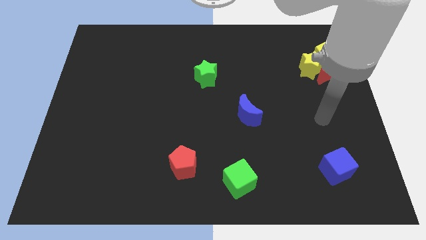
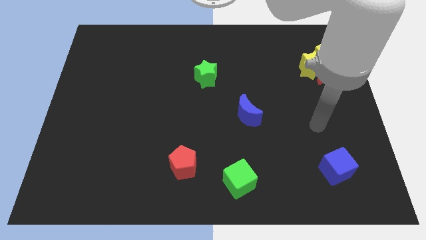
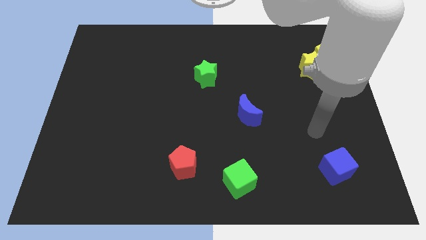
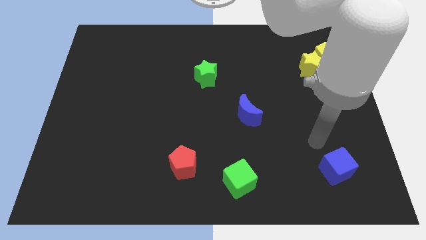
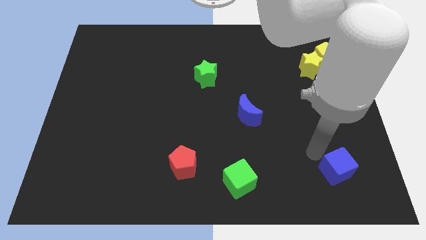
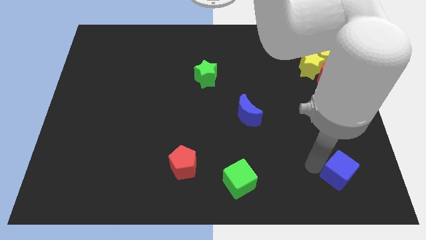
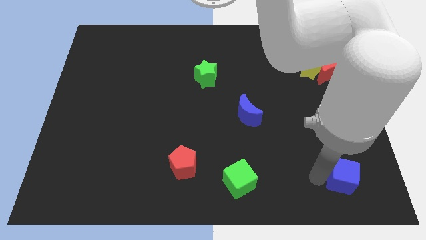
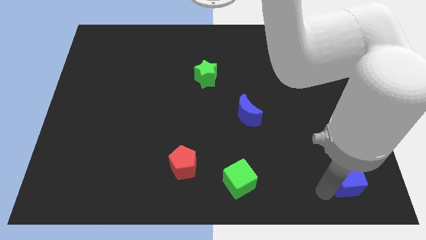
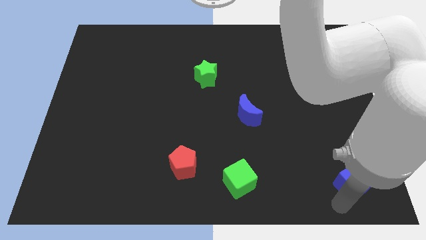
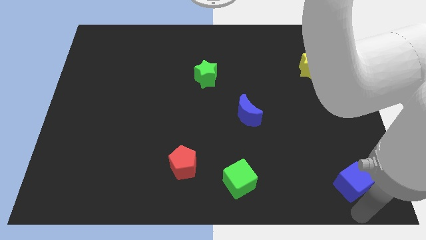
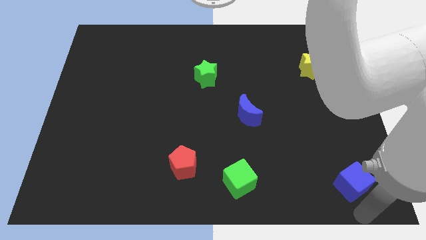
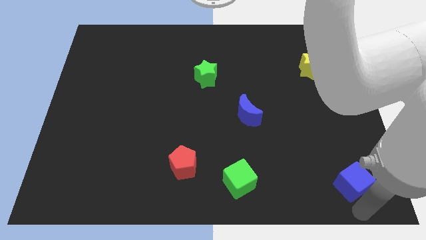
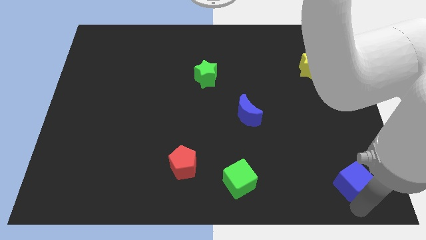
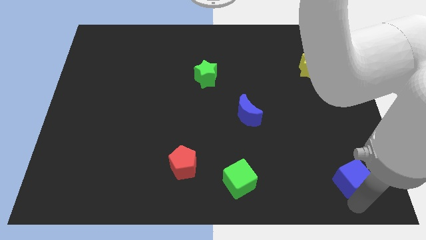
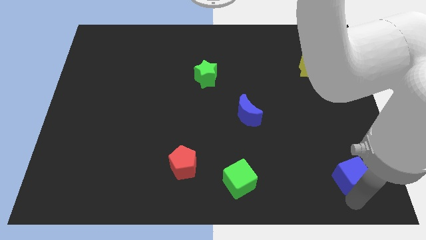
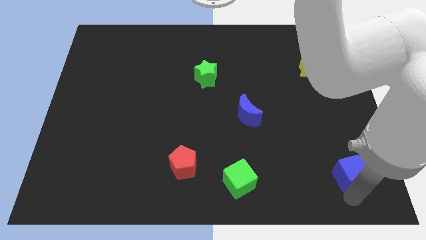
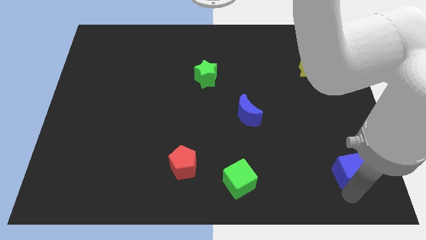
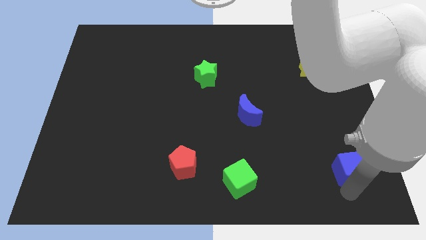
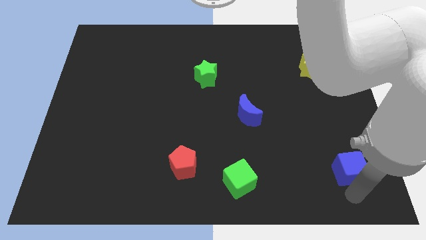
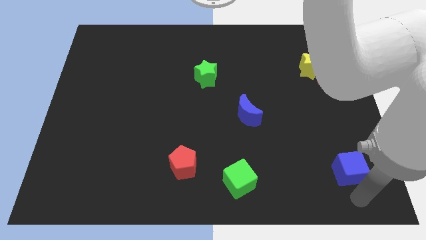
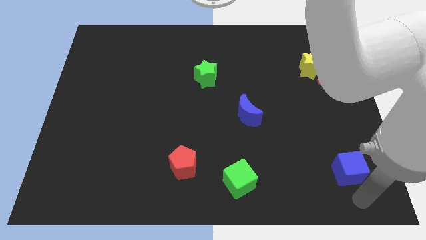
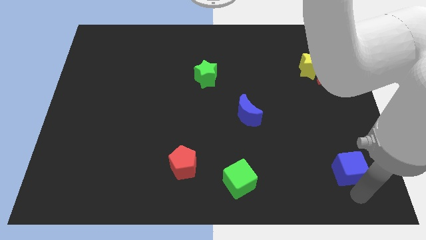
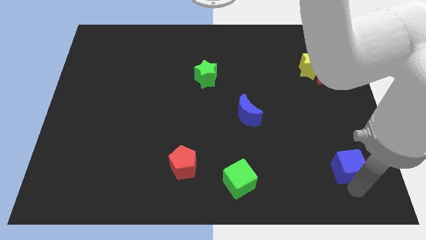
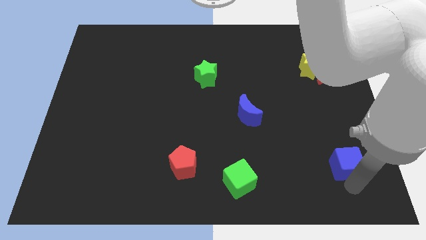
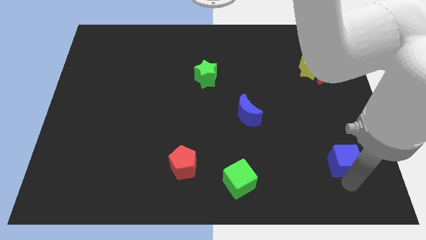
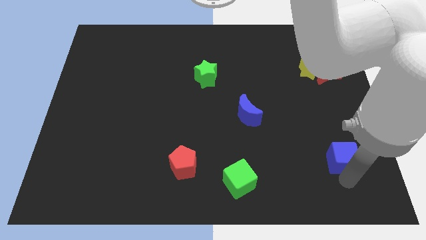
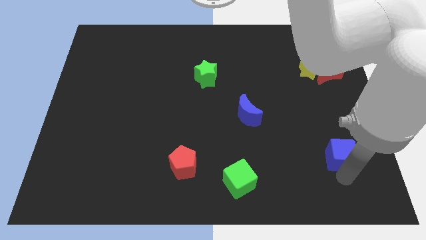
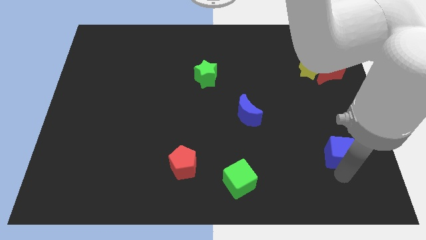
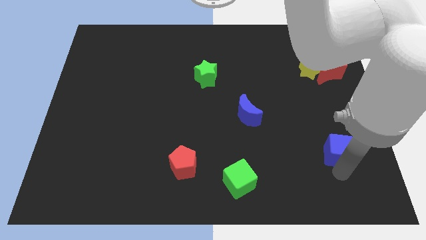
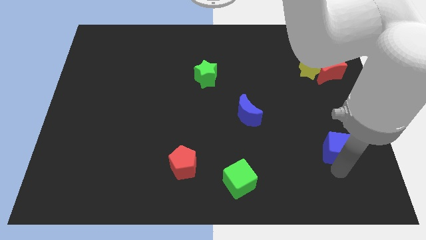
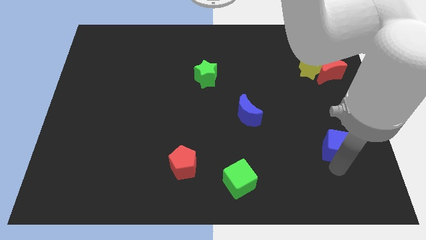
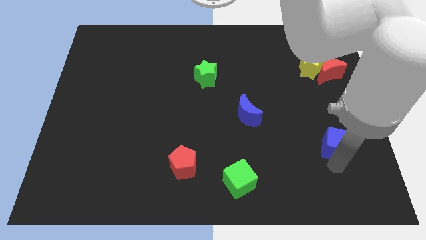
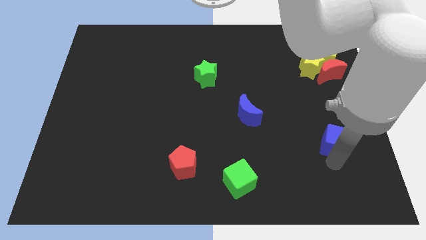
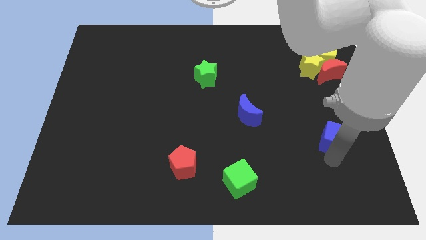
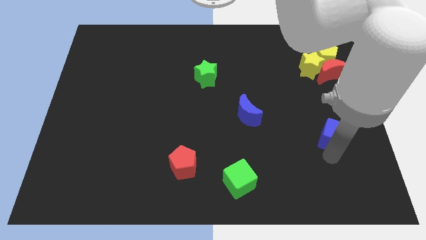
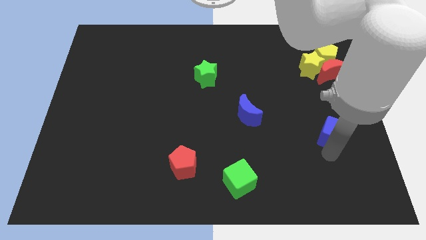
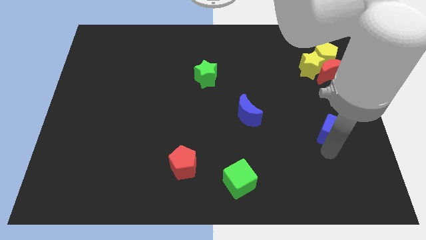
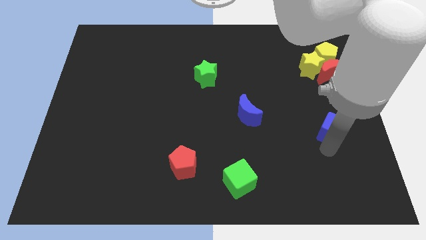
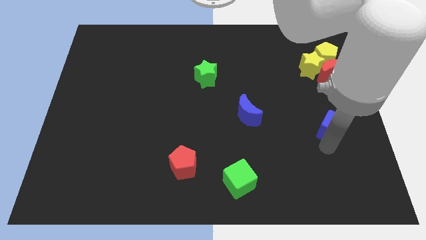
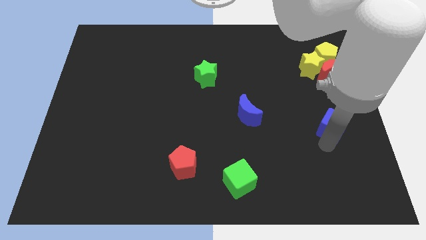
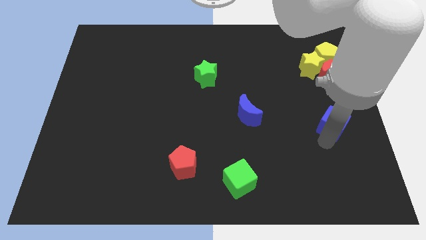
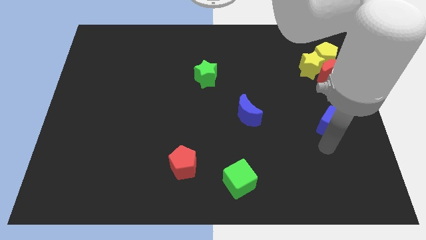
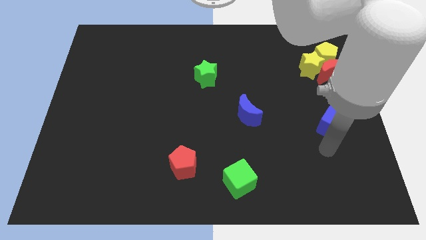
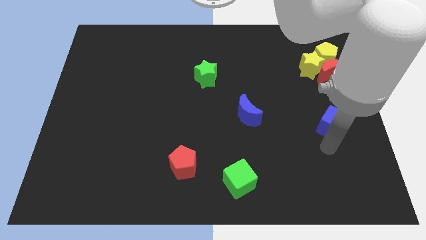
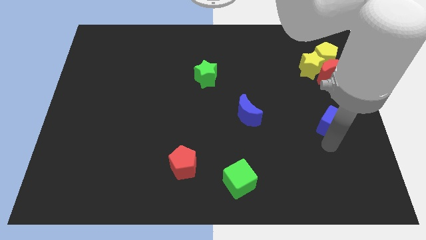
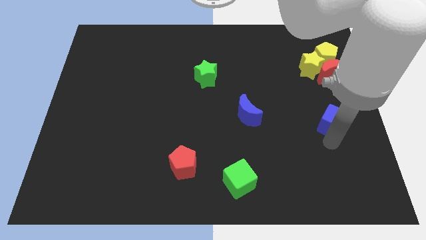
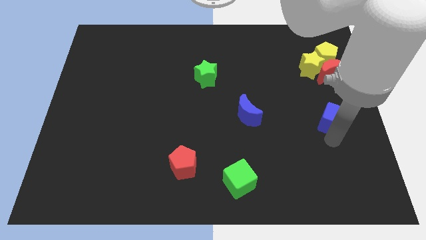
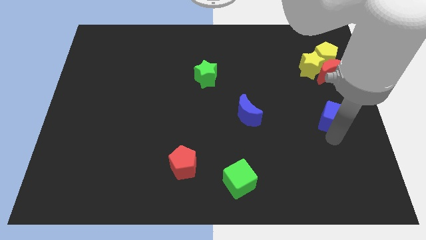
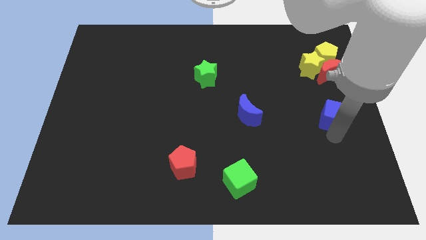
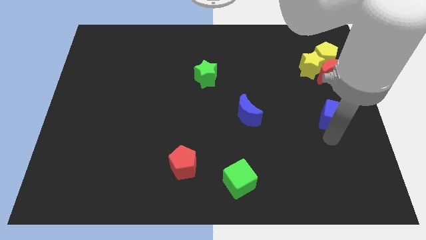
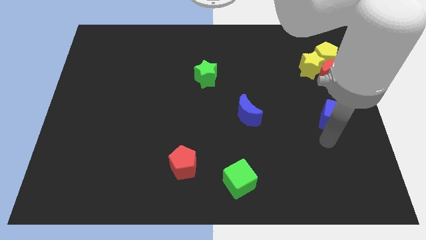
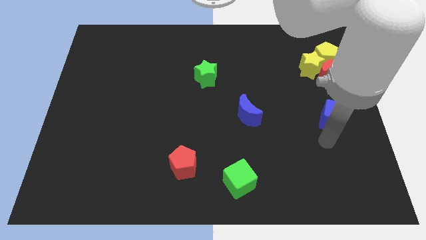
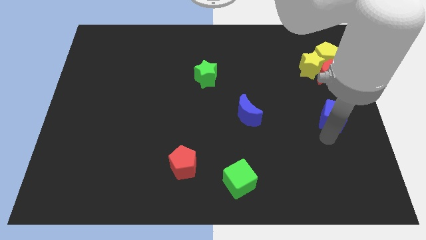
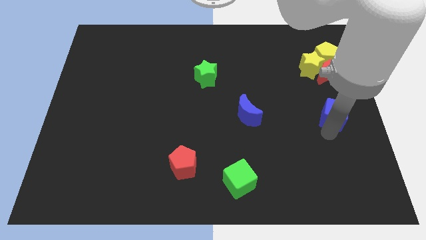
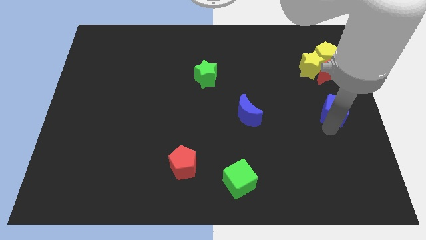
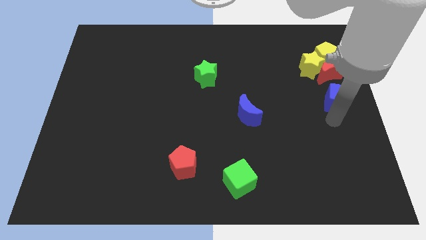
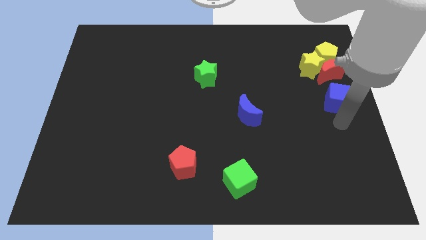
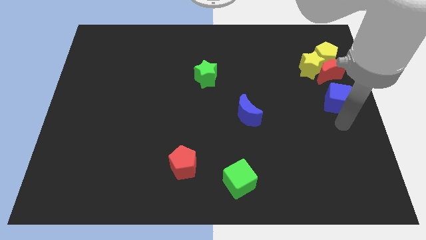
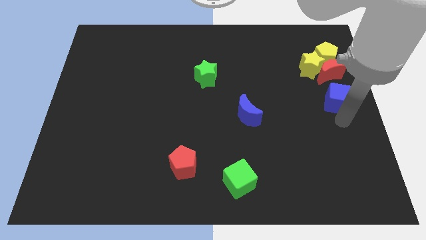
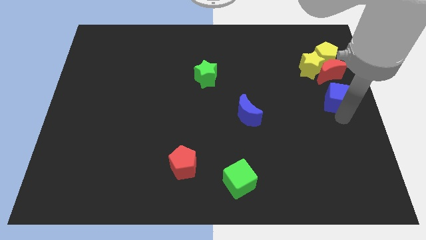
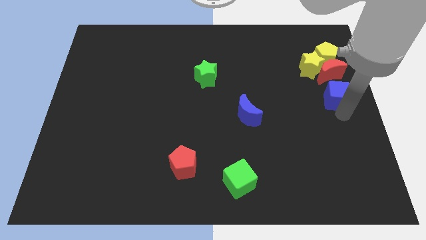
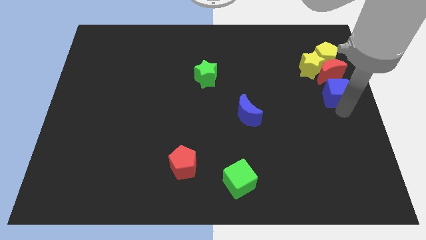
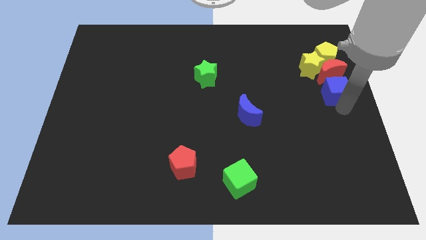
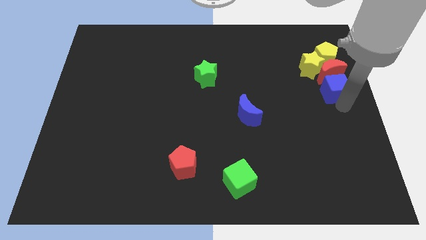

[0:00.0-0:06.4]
move the blue cube to the red moon

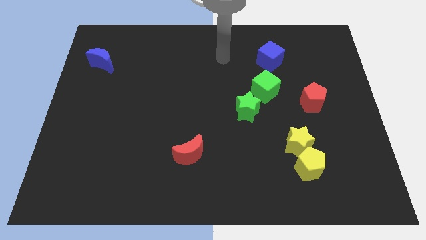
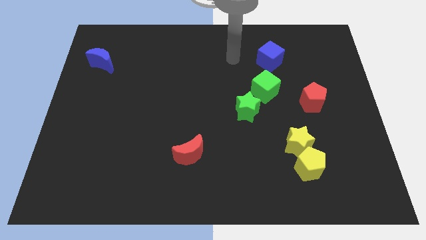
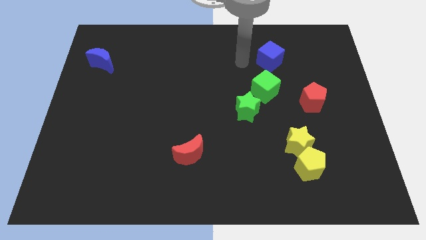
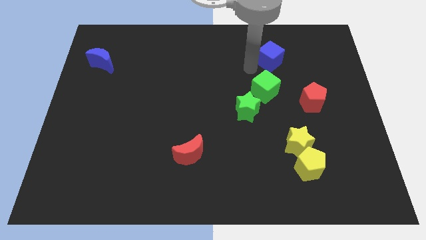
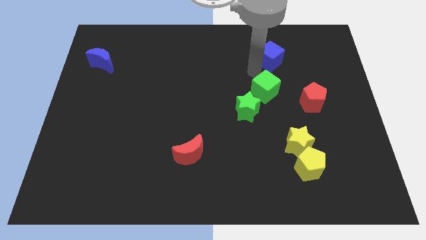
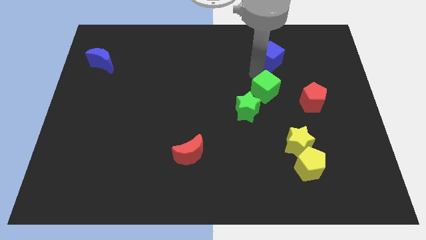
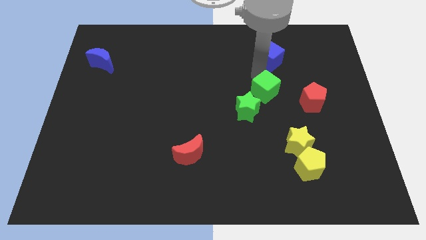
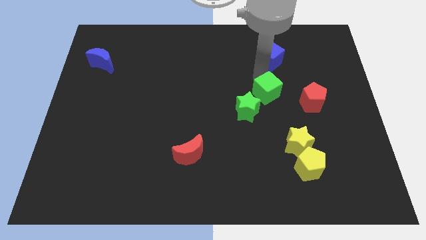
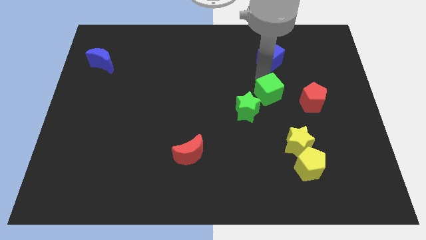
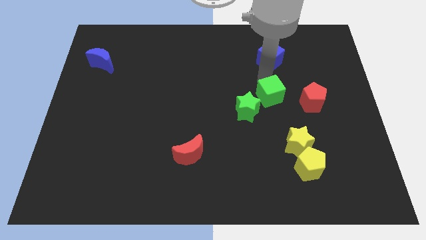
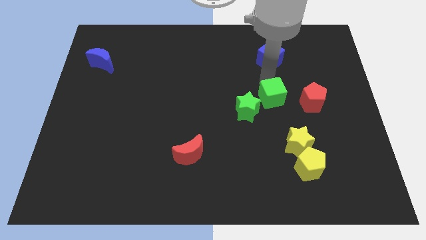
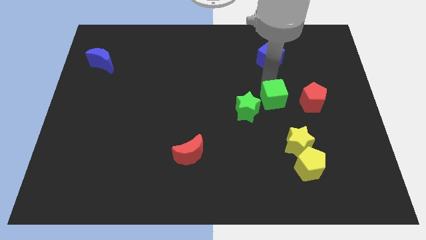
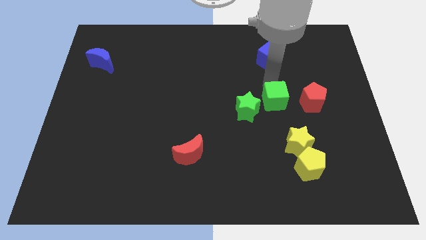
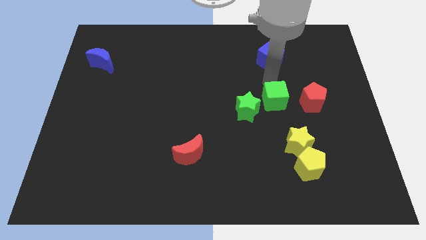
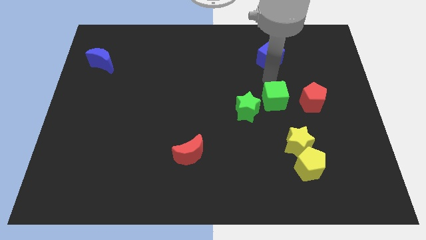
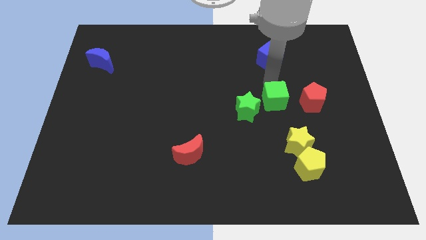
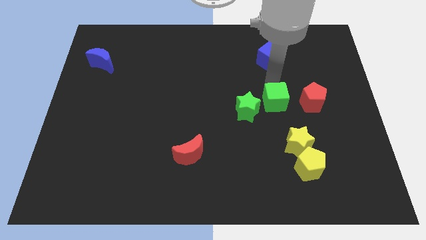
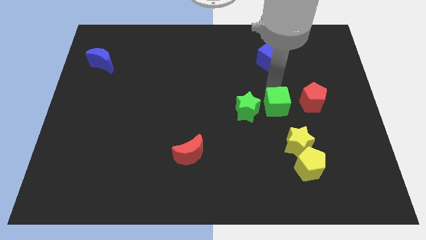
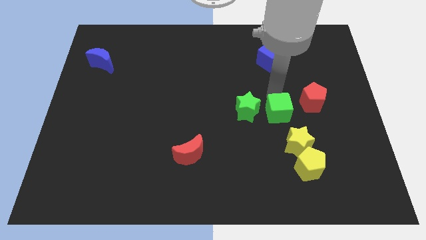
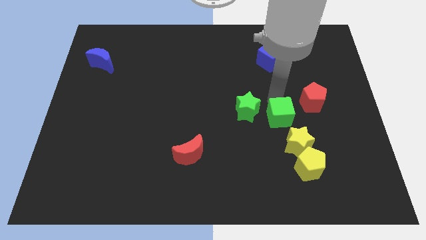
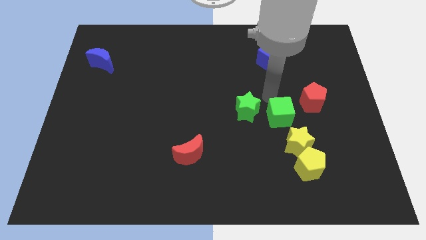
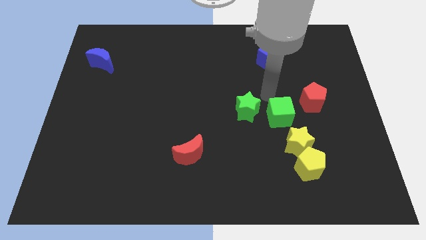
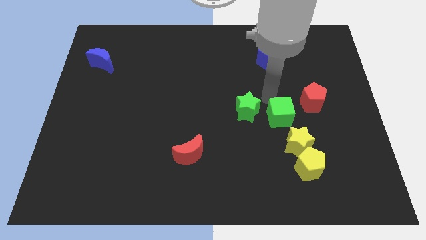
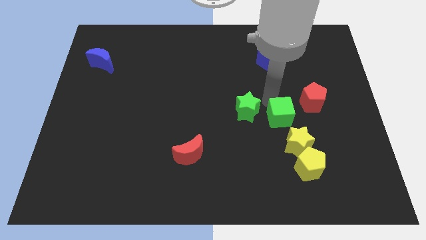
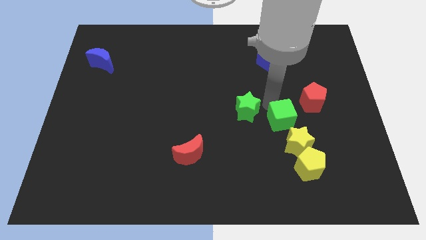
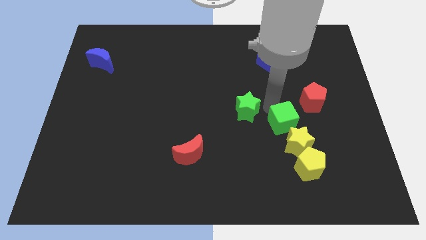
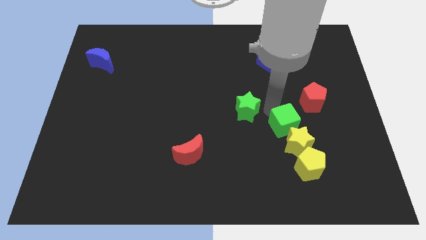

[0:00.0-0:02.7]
push the green cube close to the yellow star
